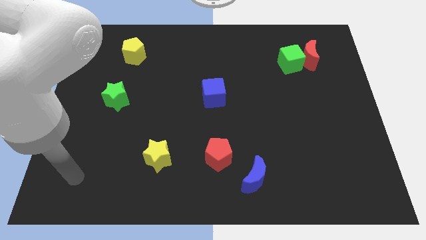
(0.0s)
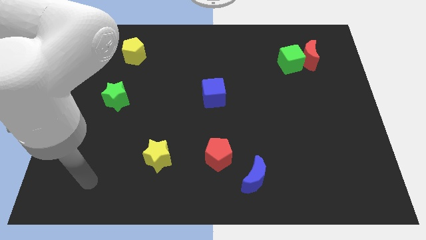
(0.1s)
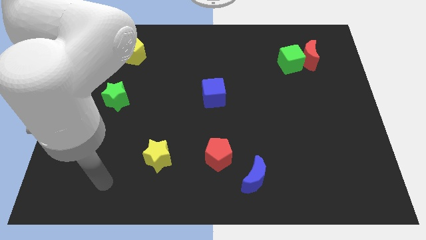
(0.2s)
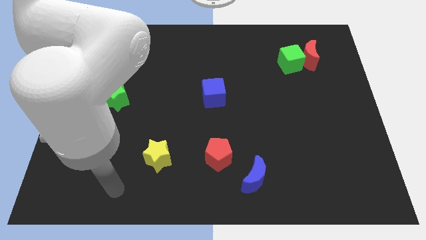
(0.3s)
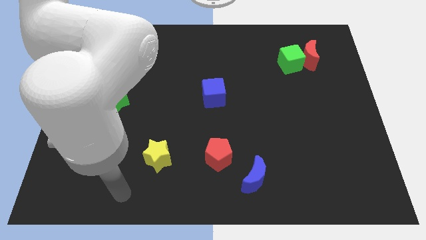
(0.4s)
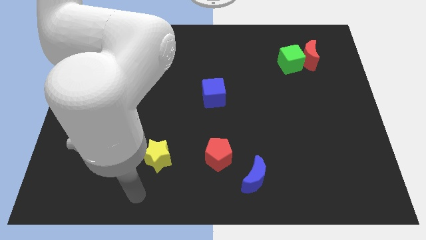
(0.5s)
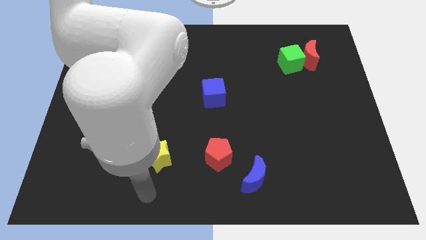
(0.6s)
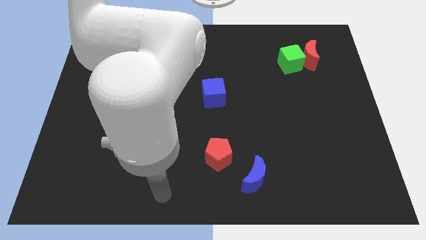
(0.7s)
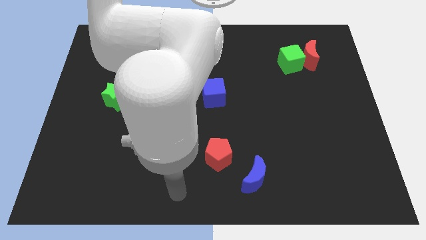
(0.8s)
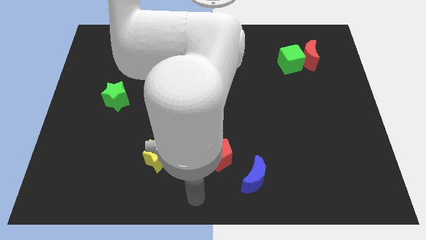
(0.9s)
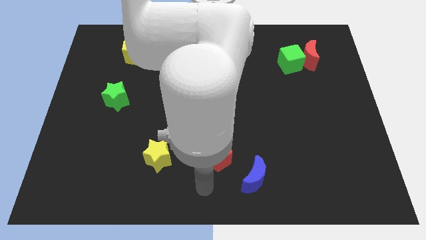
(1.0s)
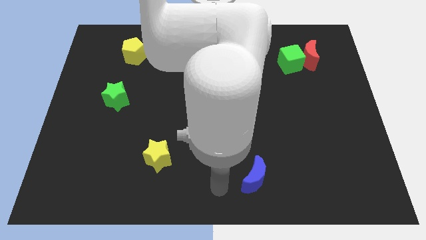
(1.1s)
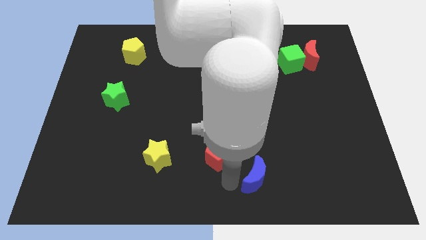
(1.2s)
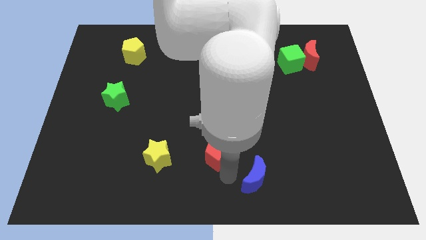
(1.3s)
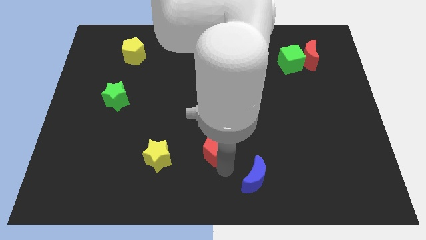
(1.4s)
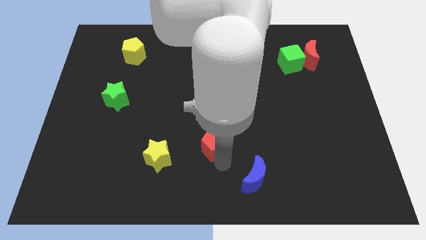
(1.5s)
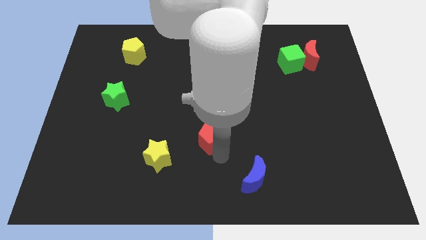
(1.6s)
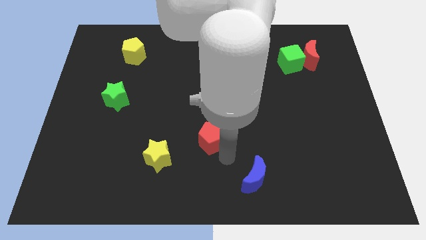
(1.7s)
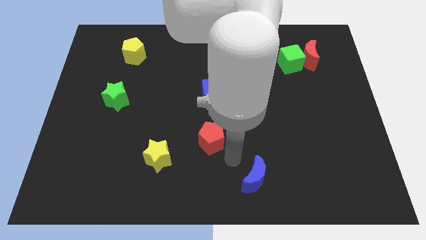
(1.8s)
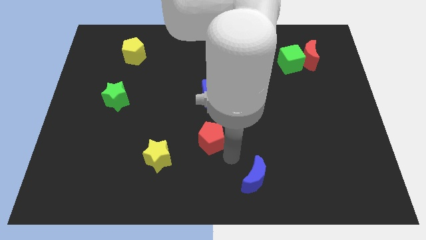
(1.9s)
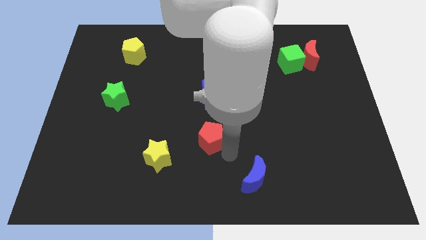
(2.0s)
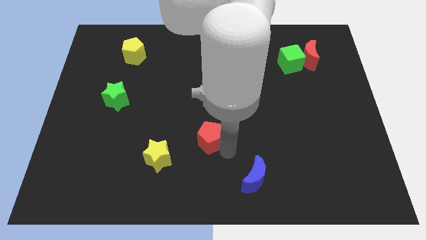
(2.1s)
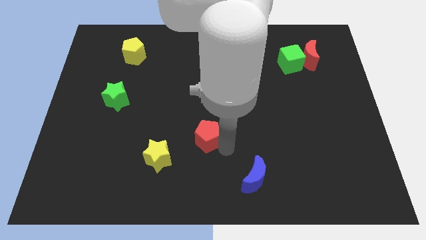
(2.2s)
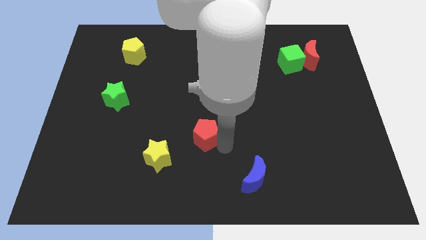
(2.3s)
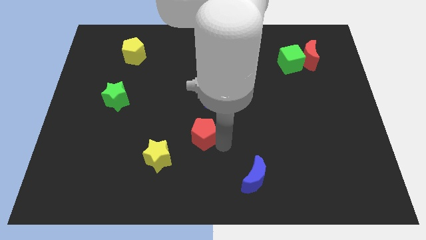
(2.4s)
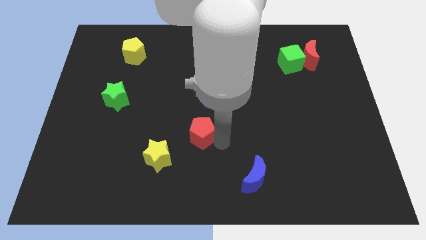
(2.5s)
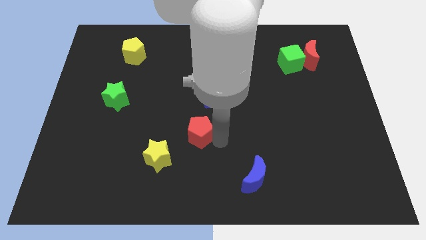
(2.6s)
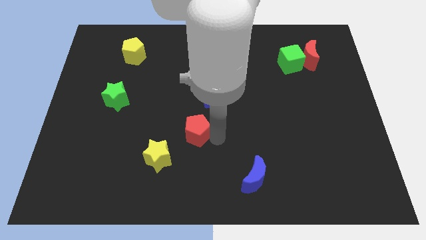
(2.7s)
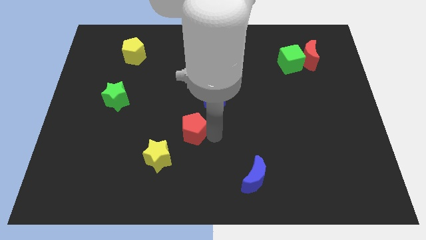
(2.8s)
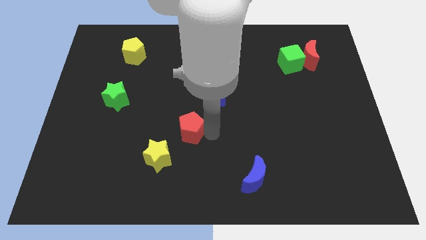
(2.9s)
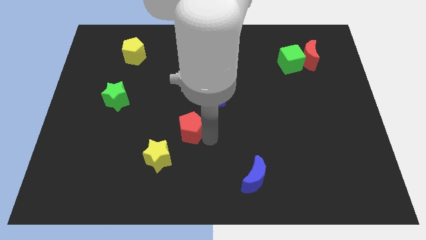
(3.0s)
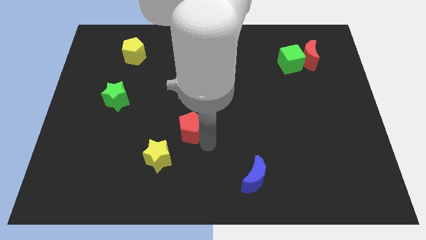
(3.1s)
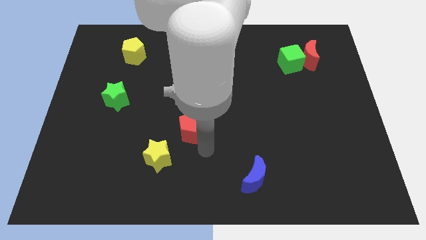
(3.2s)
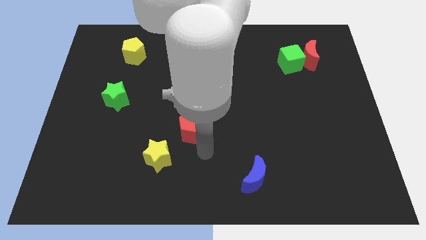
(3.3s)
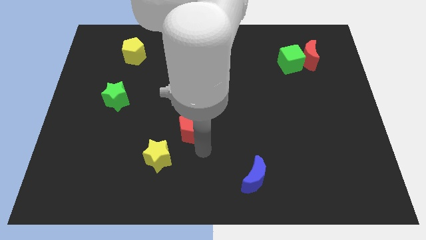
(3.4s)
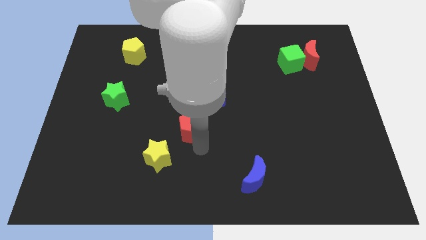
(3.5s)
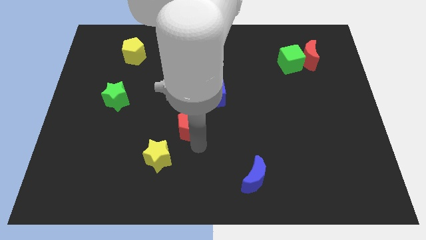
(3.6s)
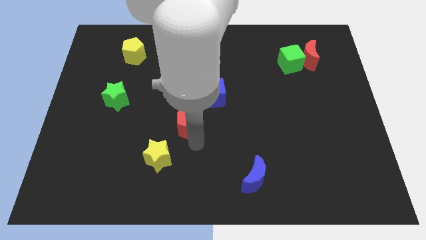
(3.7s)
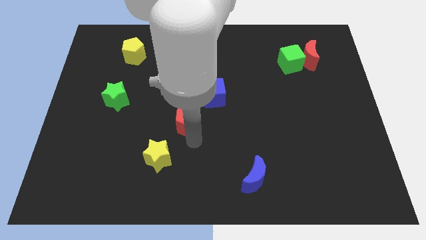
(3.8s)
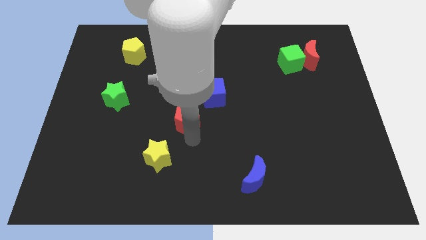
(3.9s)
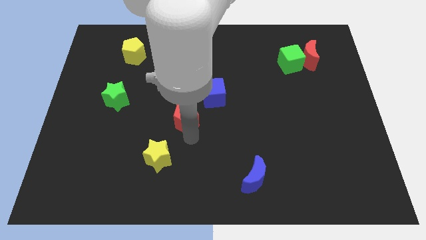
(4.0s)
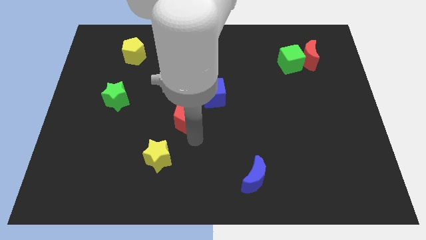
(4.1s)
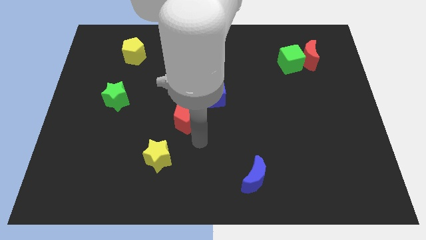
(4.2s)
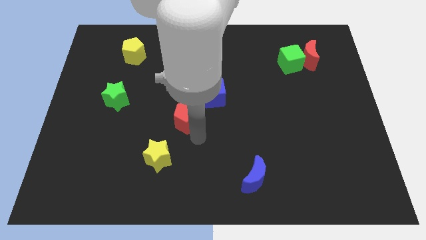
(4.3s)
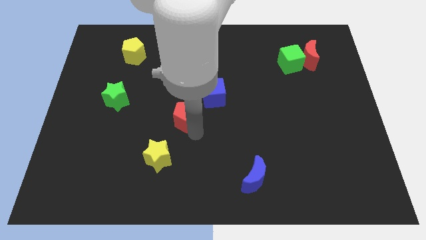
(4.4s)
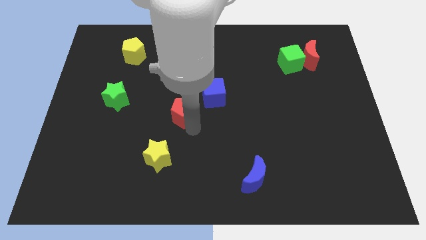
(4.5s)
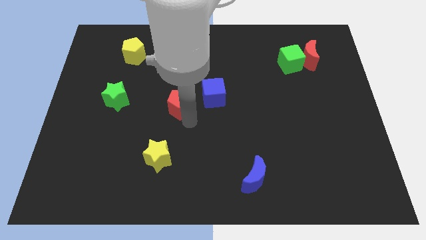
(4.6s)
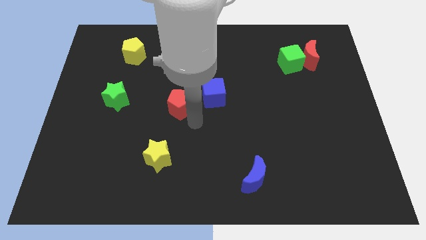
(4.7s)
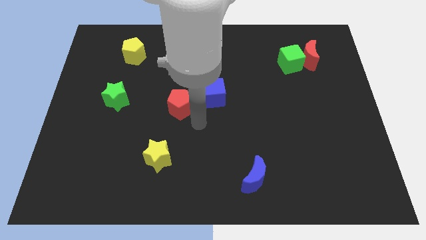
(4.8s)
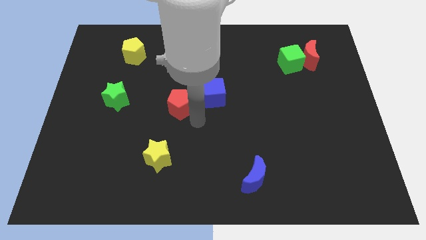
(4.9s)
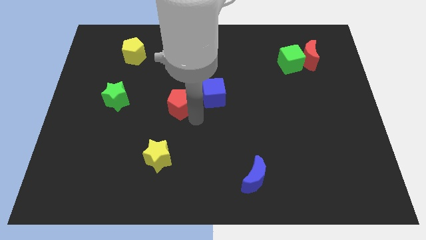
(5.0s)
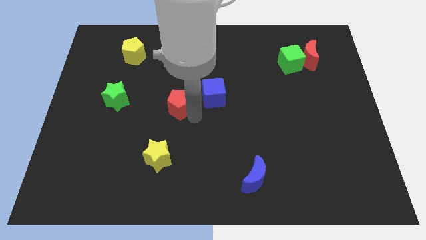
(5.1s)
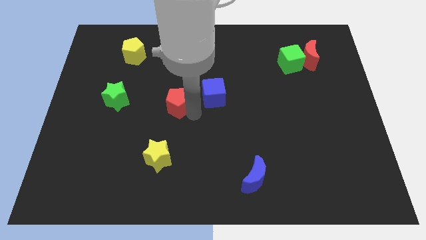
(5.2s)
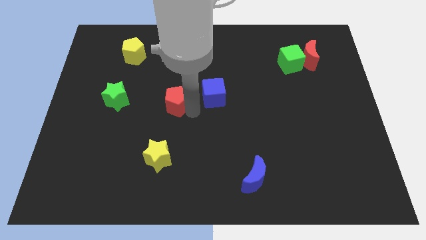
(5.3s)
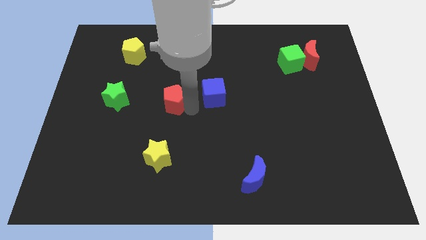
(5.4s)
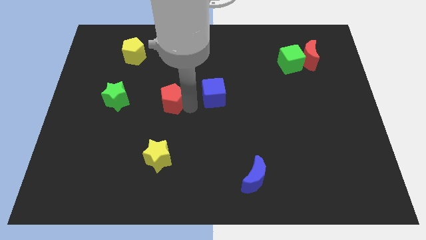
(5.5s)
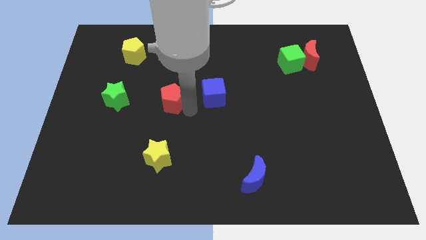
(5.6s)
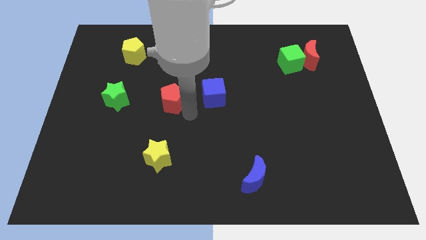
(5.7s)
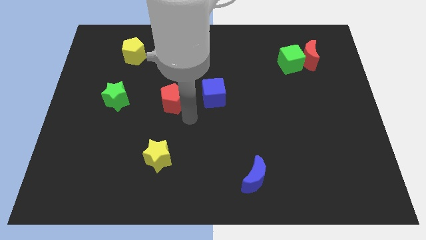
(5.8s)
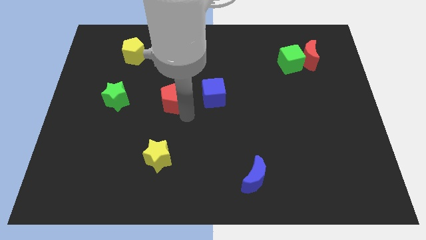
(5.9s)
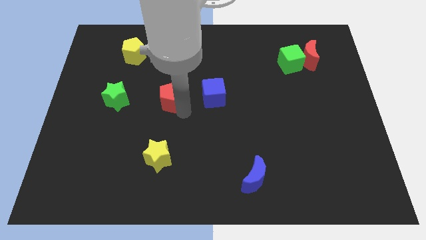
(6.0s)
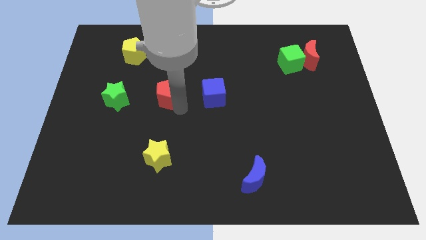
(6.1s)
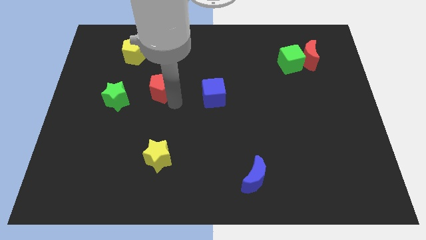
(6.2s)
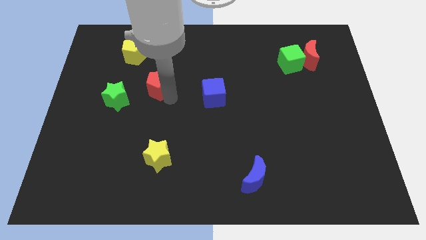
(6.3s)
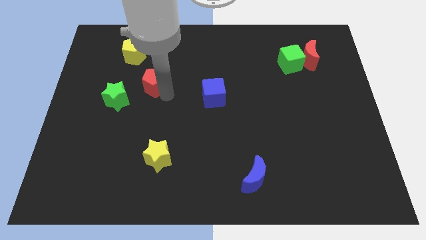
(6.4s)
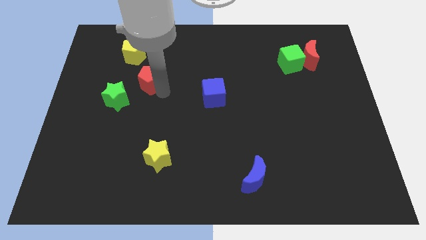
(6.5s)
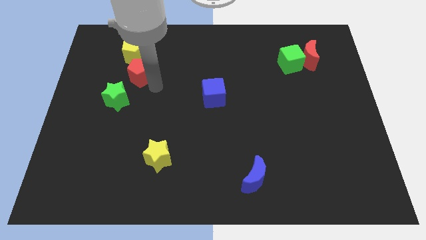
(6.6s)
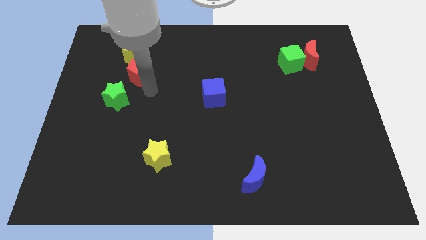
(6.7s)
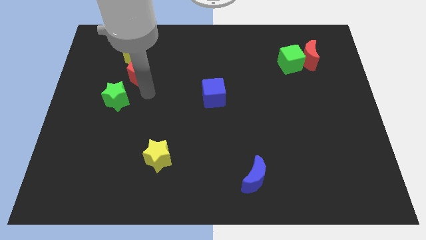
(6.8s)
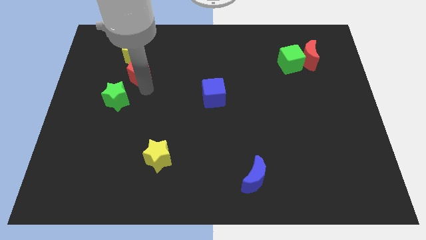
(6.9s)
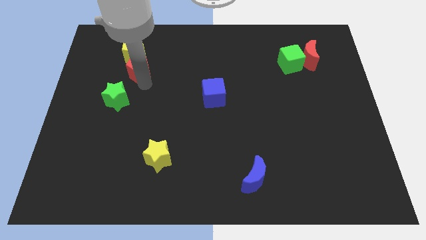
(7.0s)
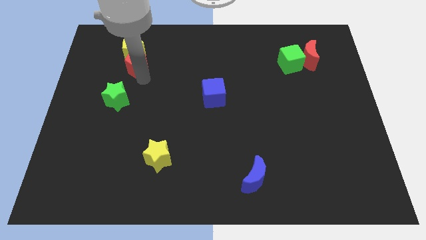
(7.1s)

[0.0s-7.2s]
push the red pentagon to the yellow pentagon
